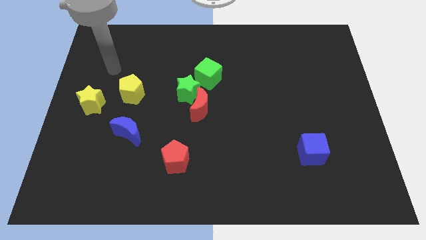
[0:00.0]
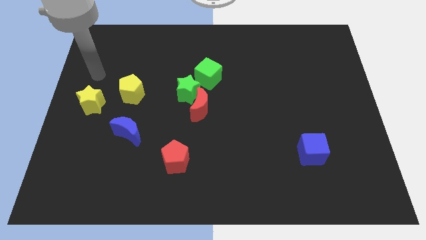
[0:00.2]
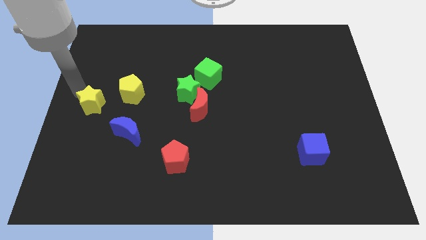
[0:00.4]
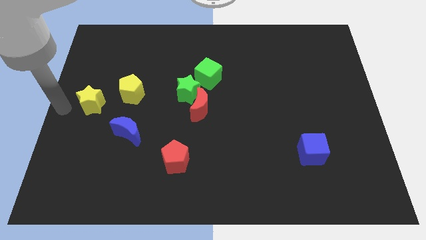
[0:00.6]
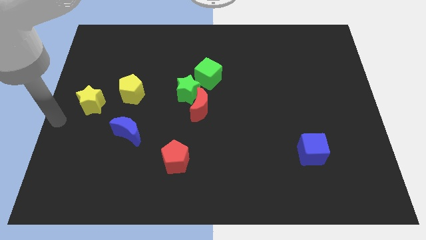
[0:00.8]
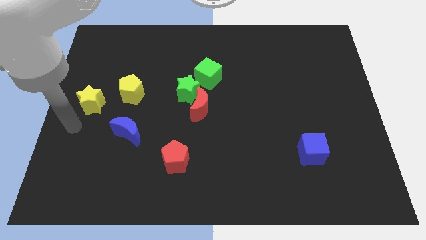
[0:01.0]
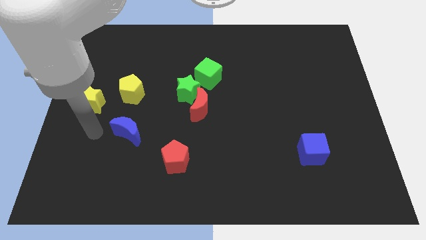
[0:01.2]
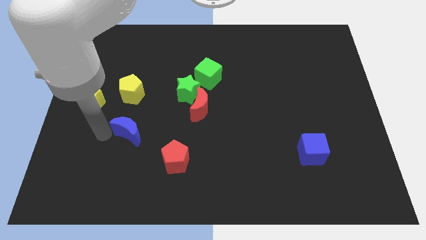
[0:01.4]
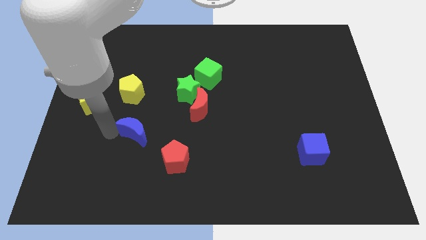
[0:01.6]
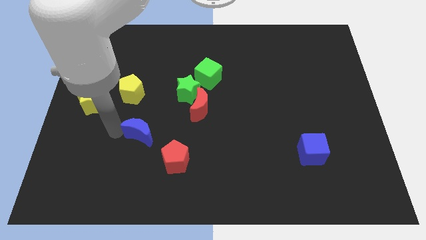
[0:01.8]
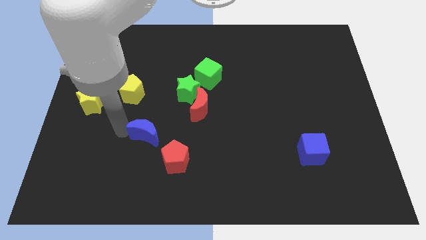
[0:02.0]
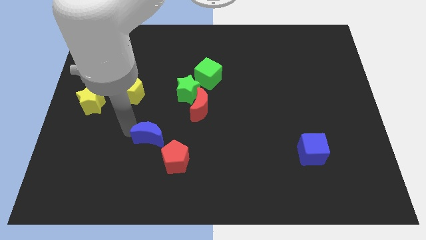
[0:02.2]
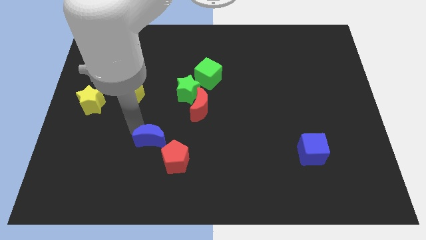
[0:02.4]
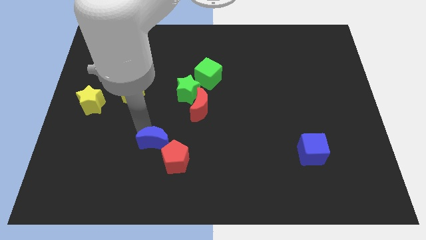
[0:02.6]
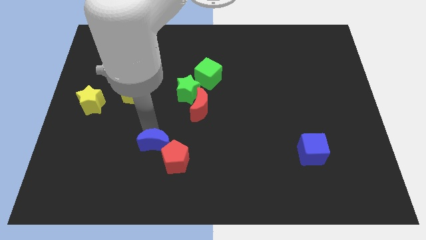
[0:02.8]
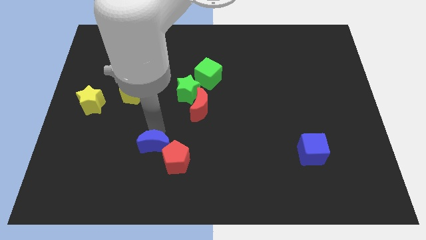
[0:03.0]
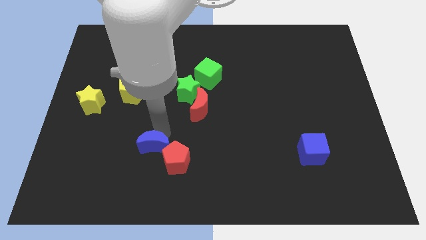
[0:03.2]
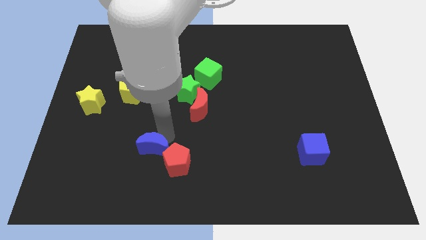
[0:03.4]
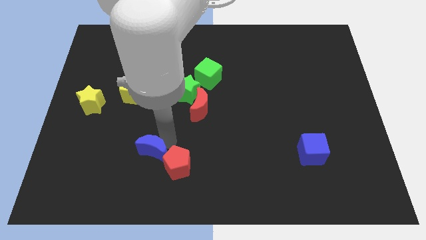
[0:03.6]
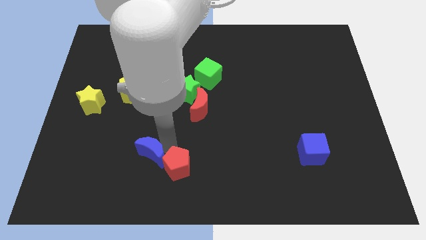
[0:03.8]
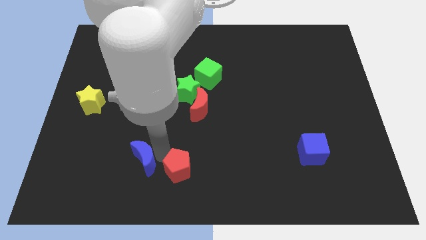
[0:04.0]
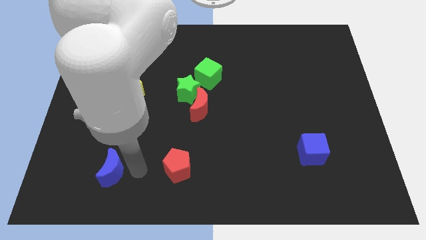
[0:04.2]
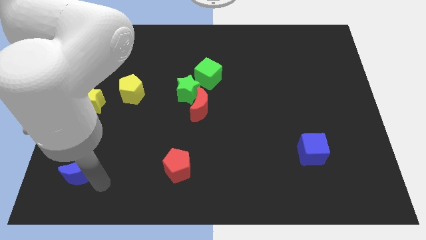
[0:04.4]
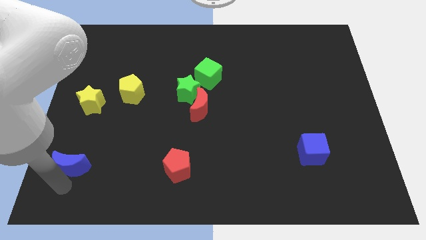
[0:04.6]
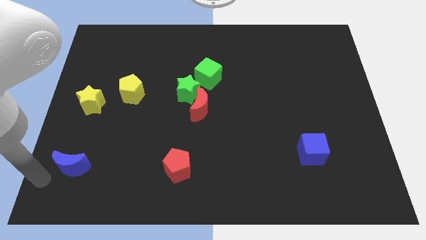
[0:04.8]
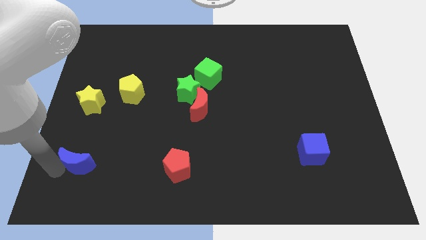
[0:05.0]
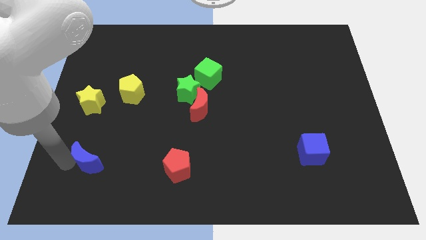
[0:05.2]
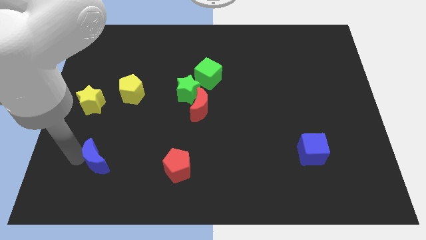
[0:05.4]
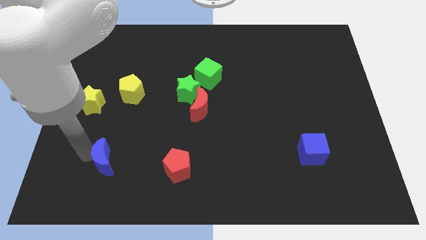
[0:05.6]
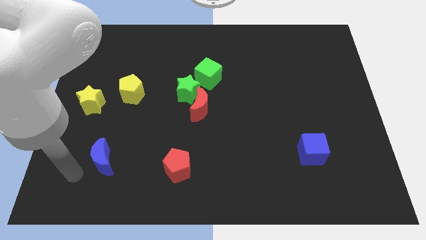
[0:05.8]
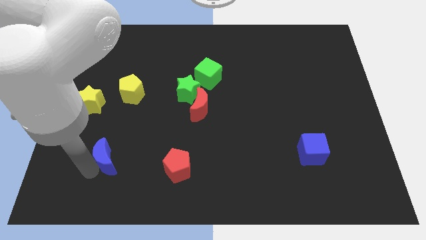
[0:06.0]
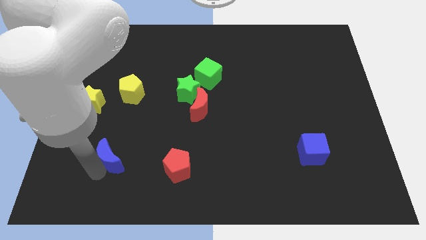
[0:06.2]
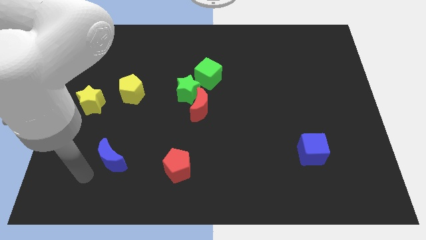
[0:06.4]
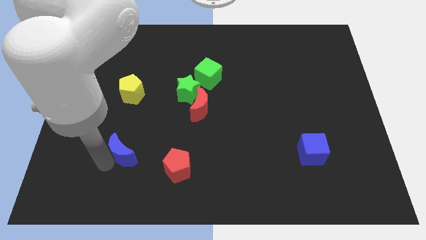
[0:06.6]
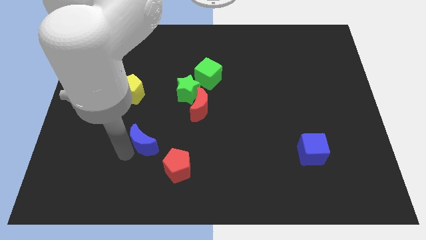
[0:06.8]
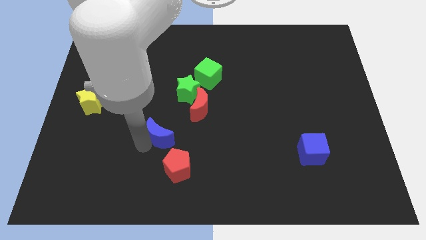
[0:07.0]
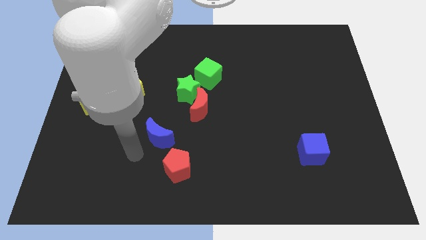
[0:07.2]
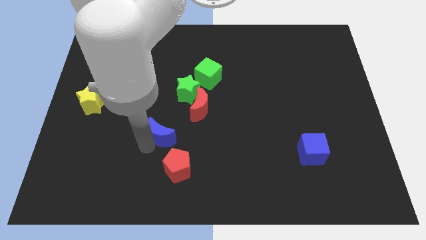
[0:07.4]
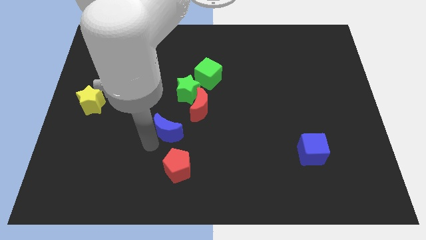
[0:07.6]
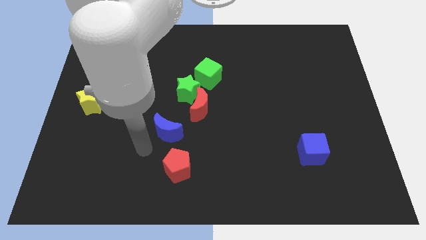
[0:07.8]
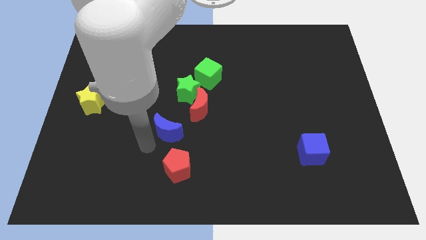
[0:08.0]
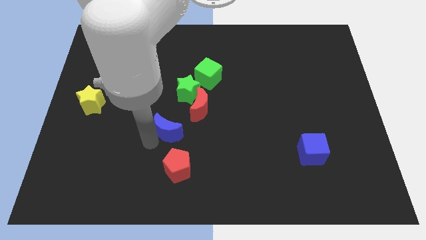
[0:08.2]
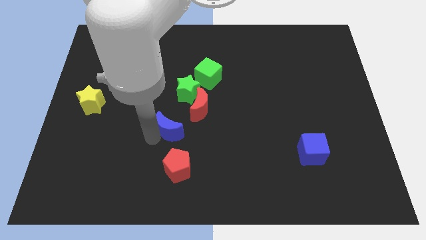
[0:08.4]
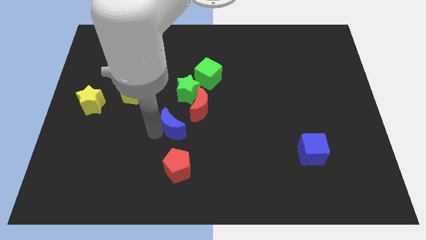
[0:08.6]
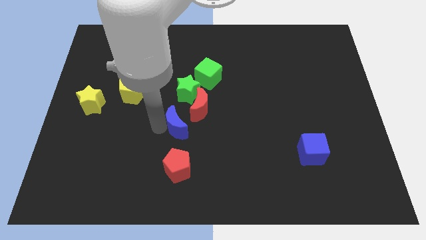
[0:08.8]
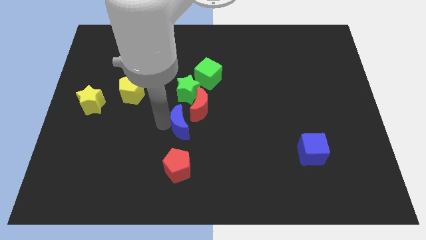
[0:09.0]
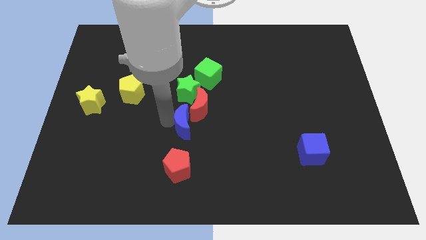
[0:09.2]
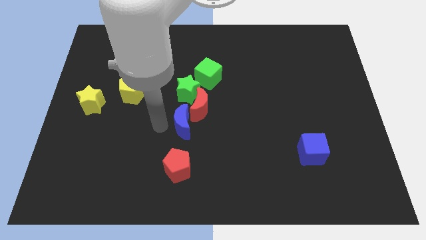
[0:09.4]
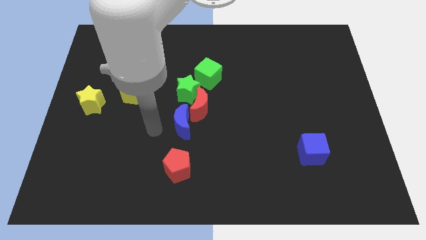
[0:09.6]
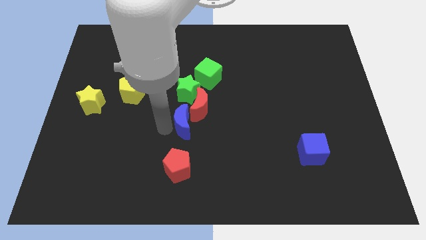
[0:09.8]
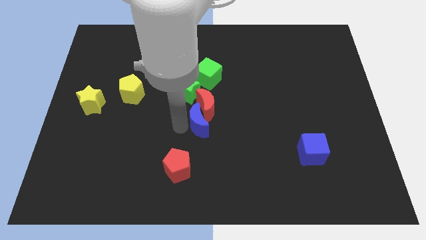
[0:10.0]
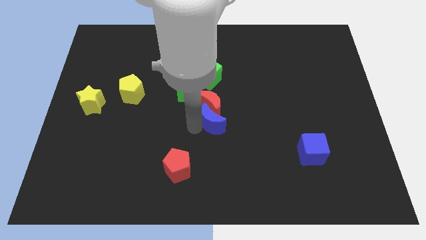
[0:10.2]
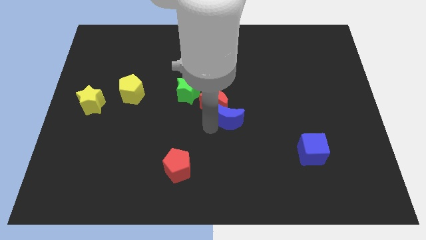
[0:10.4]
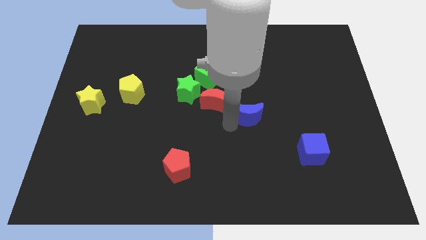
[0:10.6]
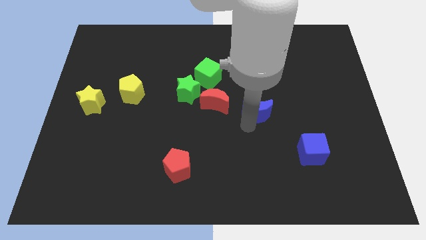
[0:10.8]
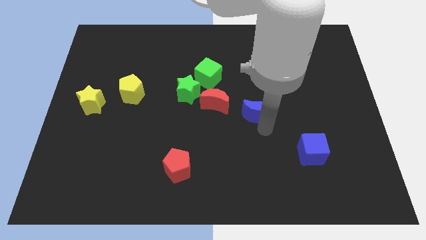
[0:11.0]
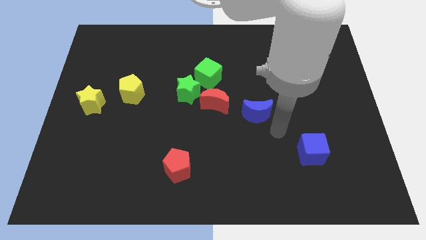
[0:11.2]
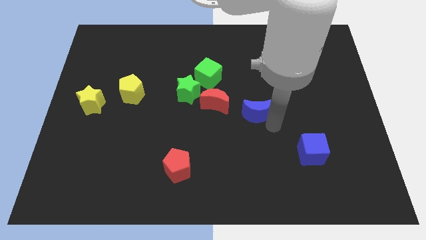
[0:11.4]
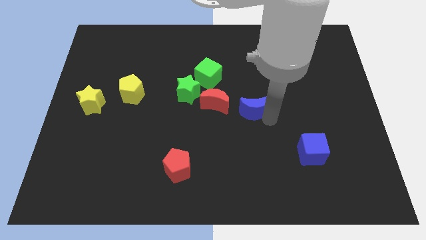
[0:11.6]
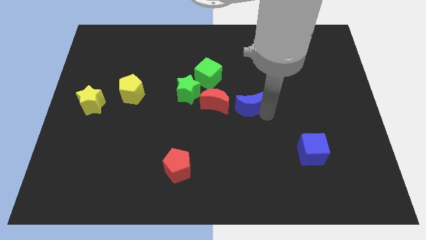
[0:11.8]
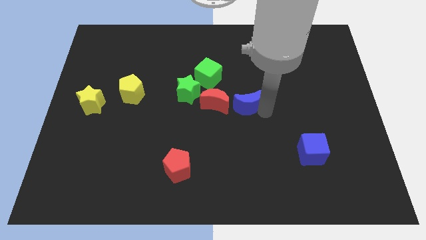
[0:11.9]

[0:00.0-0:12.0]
put the blue moon right of the green star
